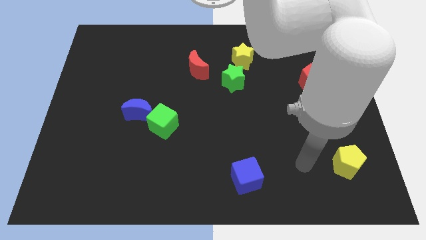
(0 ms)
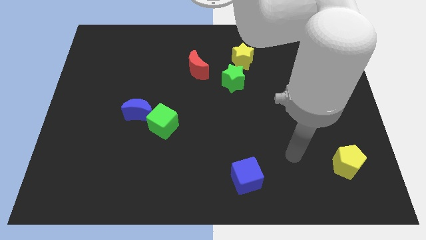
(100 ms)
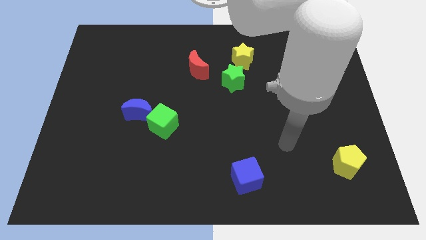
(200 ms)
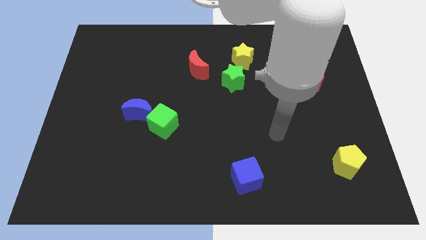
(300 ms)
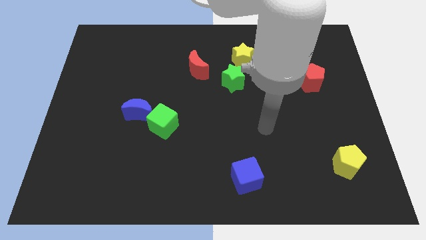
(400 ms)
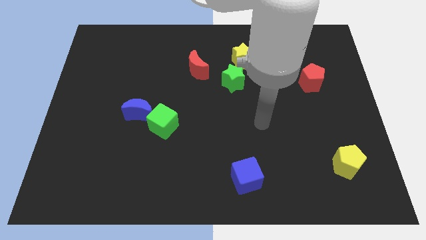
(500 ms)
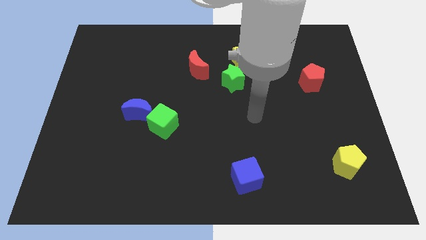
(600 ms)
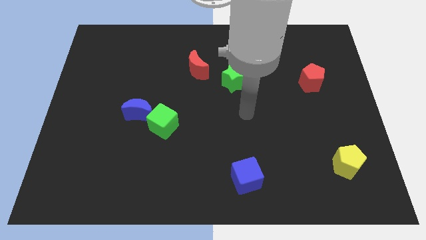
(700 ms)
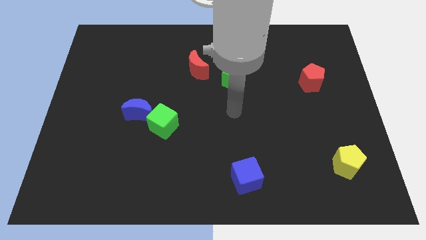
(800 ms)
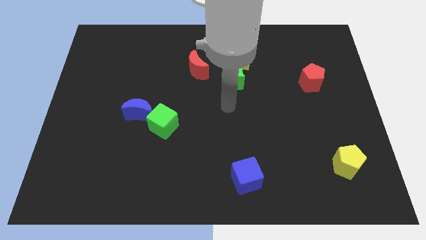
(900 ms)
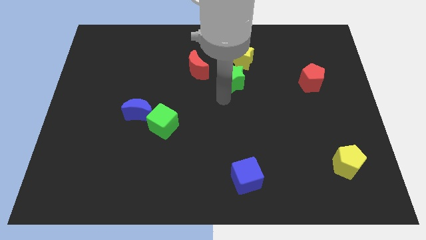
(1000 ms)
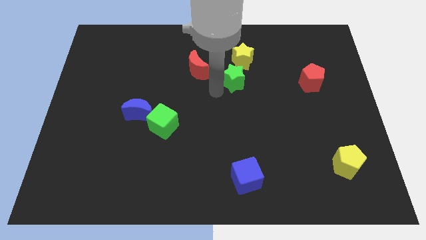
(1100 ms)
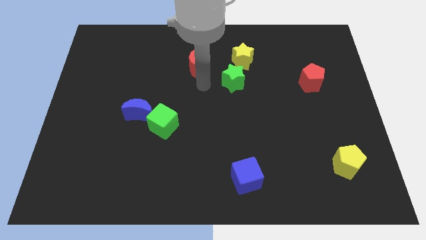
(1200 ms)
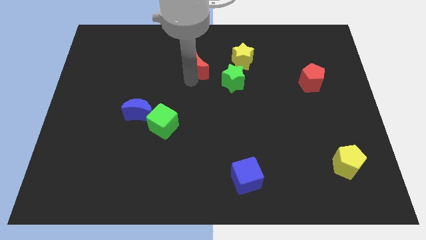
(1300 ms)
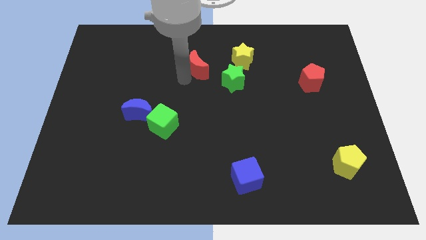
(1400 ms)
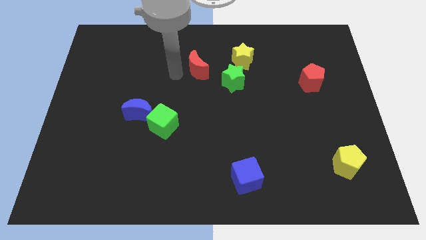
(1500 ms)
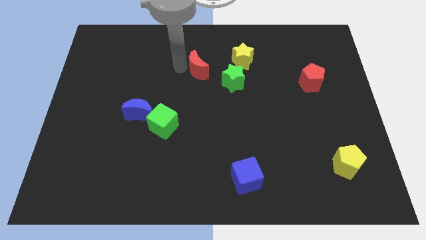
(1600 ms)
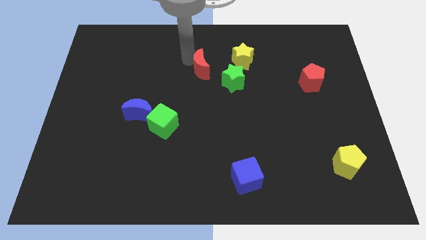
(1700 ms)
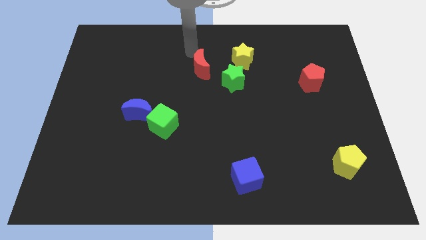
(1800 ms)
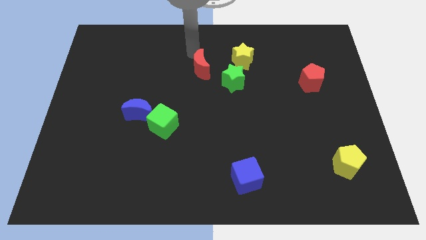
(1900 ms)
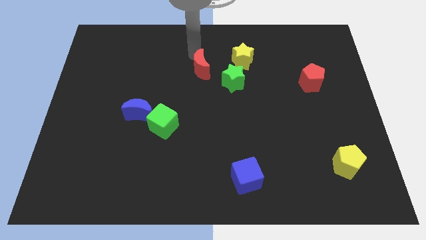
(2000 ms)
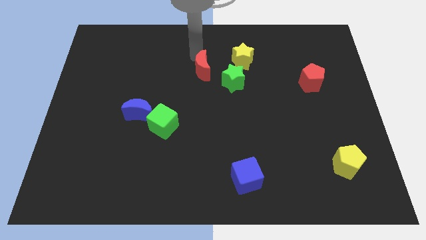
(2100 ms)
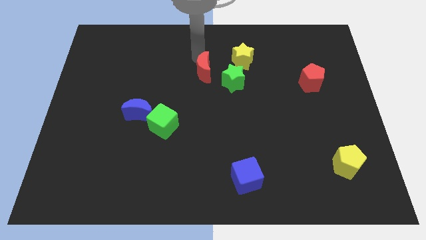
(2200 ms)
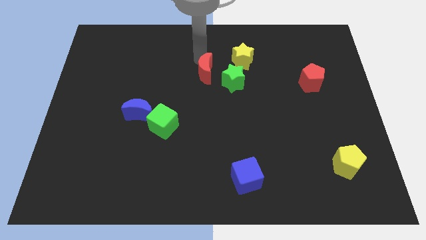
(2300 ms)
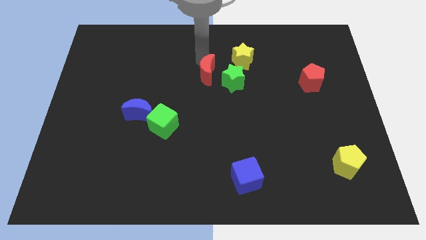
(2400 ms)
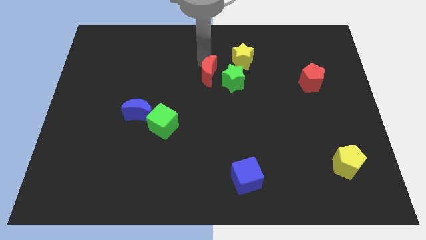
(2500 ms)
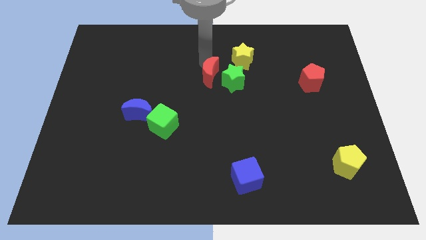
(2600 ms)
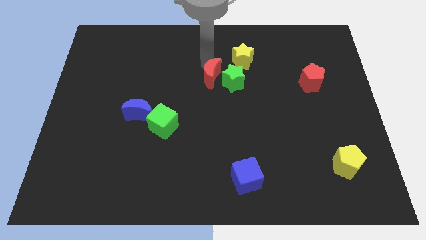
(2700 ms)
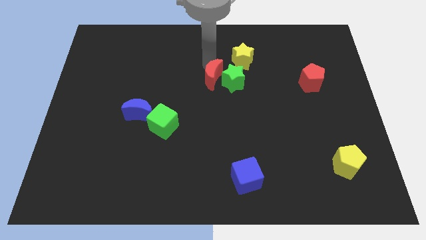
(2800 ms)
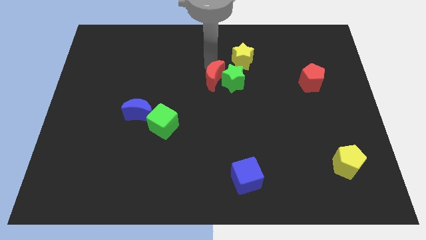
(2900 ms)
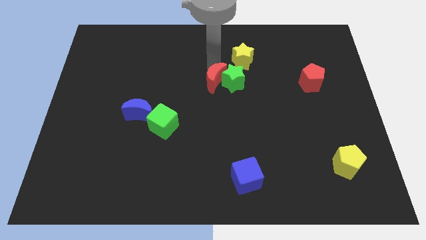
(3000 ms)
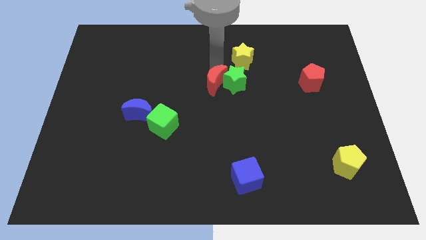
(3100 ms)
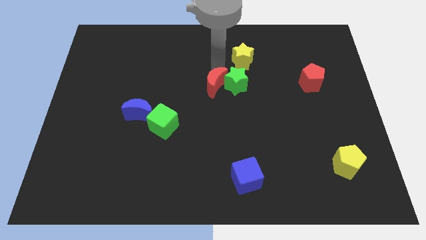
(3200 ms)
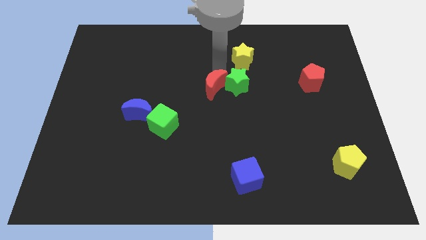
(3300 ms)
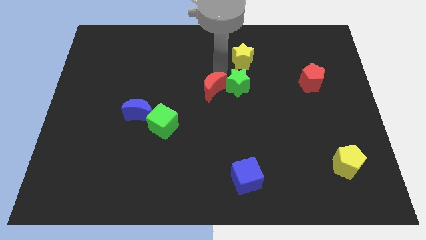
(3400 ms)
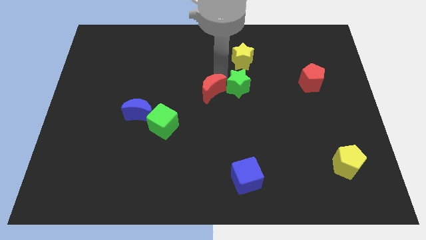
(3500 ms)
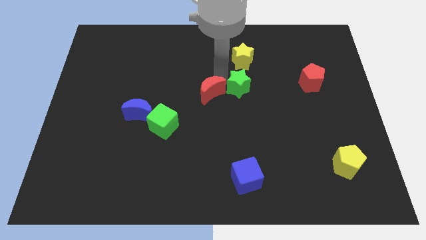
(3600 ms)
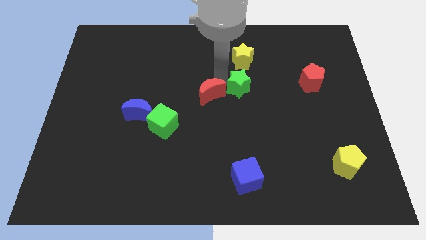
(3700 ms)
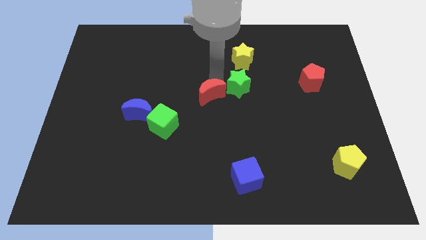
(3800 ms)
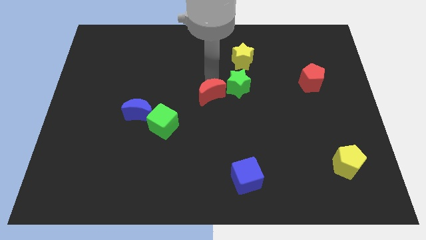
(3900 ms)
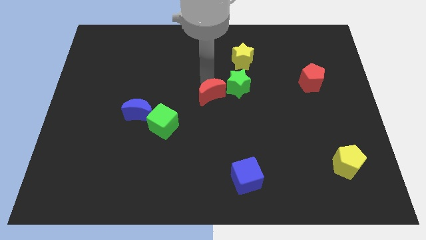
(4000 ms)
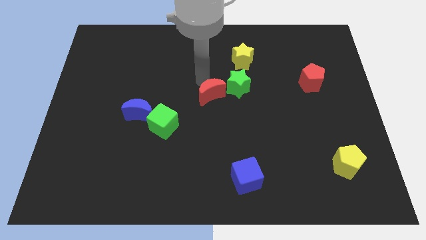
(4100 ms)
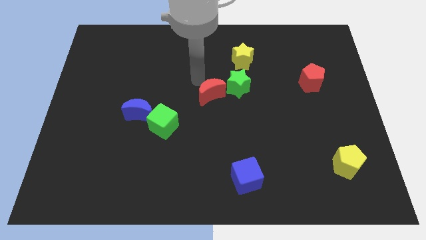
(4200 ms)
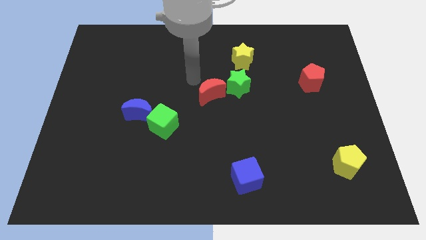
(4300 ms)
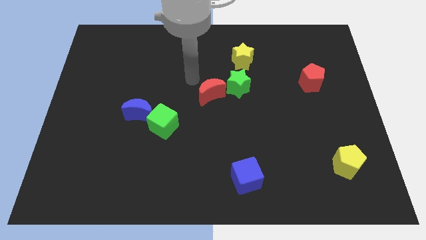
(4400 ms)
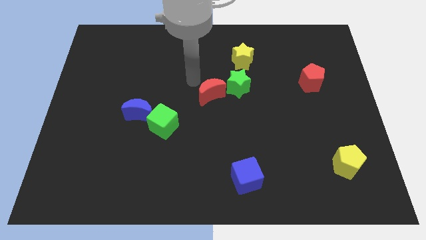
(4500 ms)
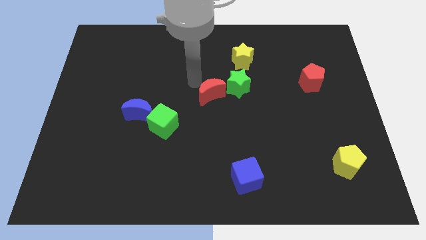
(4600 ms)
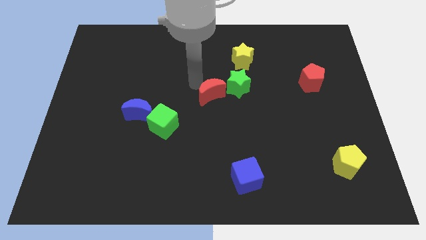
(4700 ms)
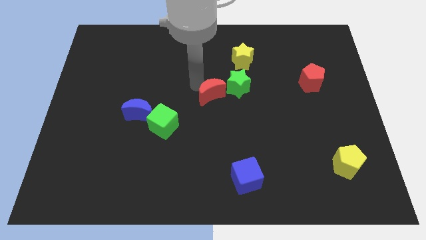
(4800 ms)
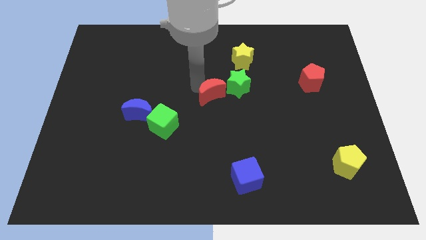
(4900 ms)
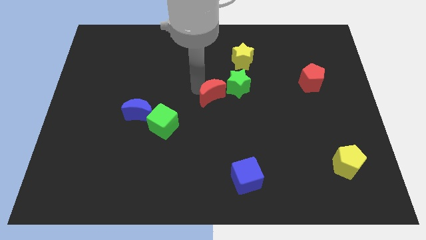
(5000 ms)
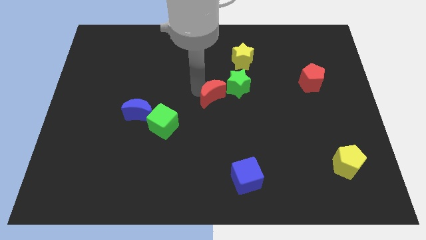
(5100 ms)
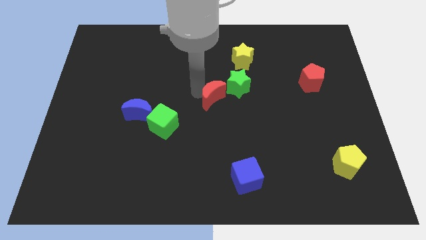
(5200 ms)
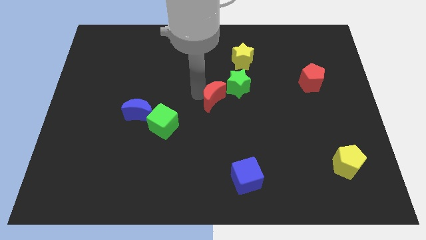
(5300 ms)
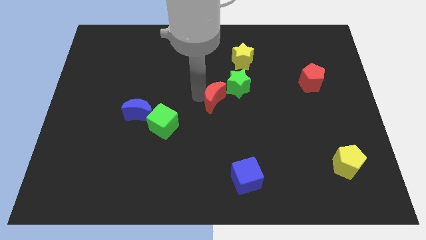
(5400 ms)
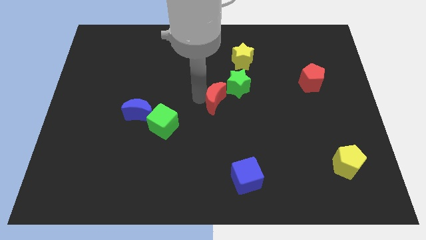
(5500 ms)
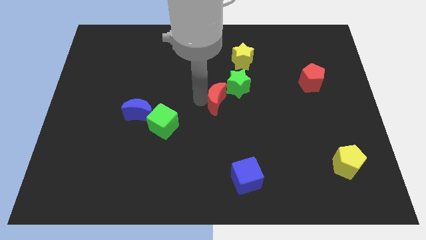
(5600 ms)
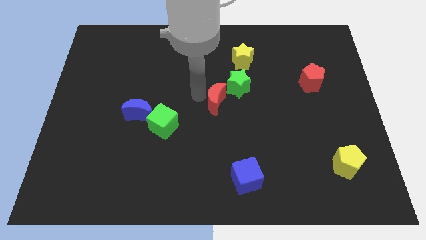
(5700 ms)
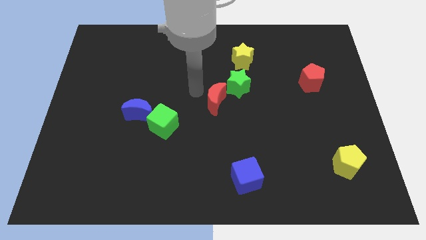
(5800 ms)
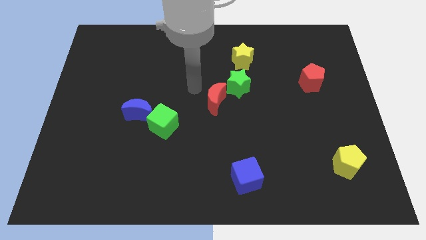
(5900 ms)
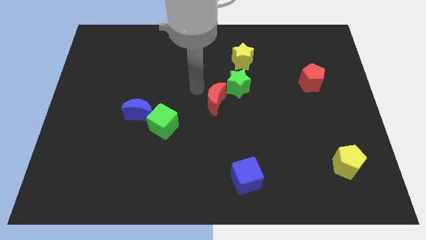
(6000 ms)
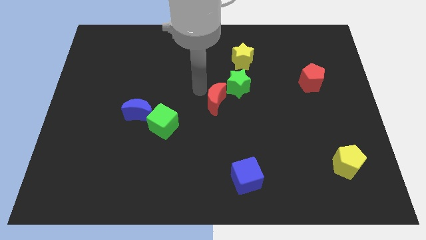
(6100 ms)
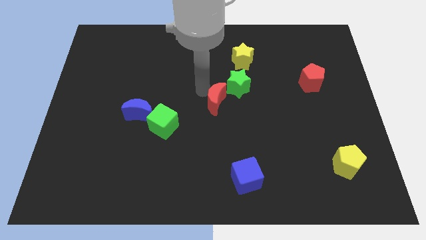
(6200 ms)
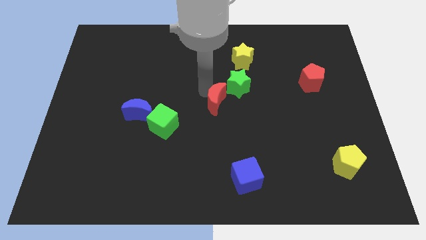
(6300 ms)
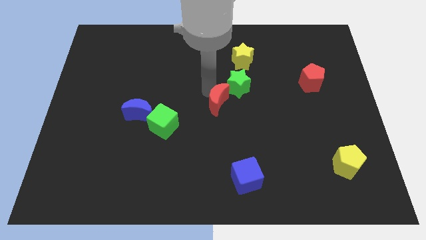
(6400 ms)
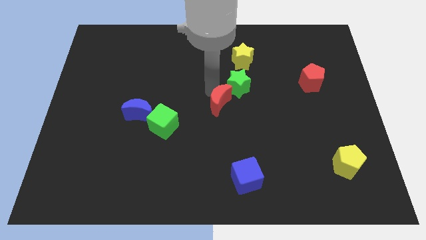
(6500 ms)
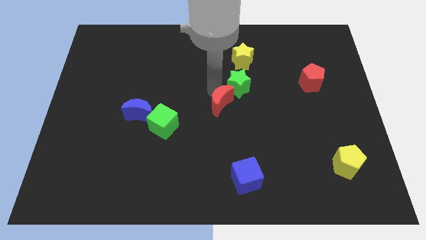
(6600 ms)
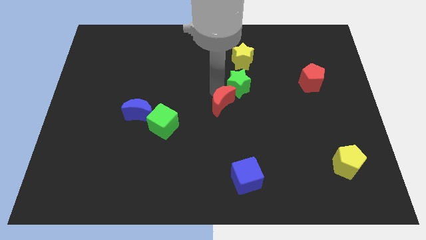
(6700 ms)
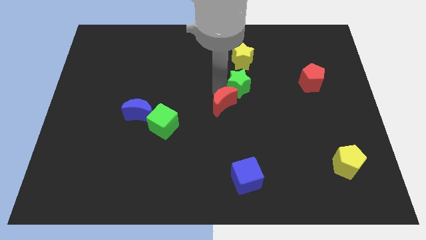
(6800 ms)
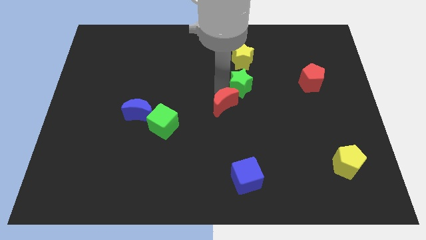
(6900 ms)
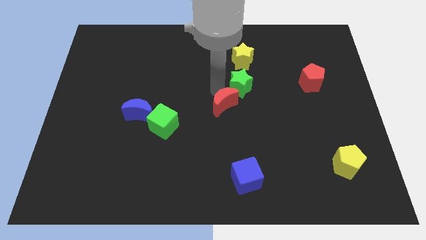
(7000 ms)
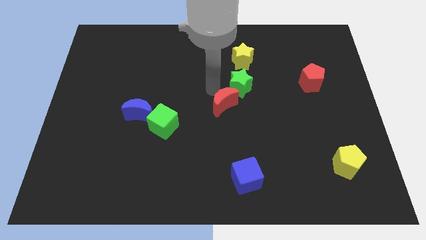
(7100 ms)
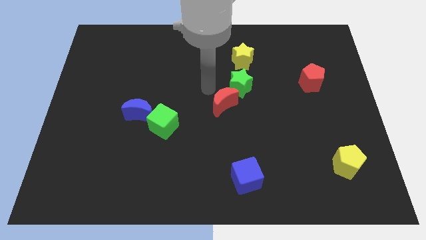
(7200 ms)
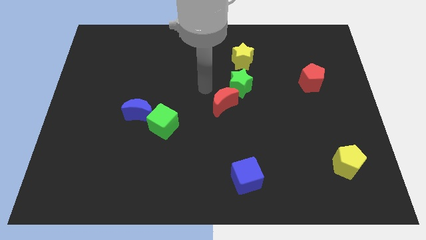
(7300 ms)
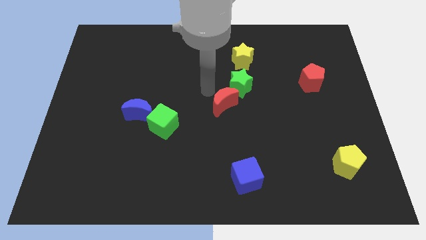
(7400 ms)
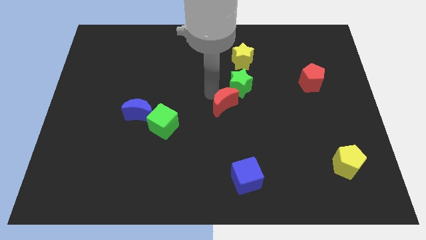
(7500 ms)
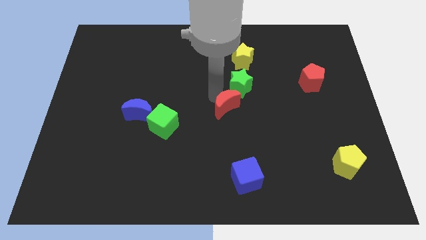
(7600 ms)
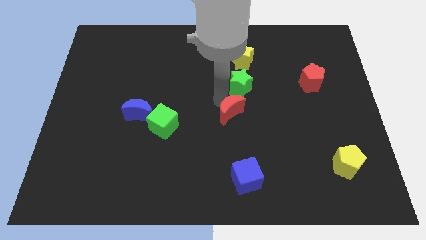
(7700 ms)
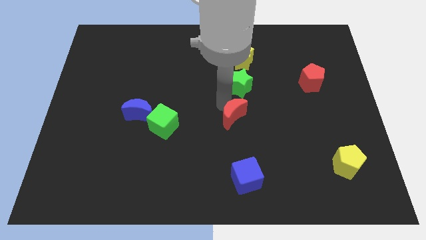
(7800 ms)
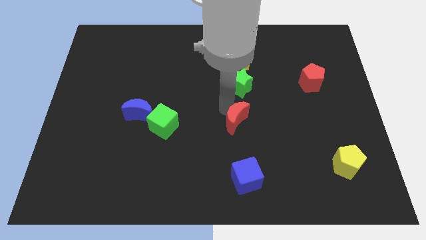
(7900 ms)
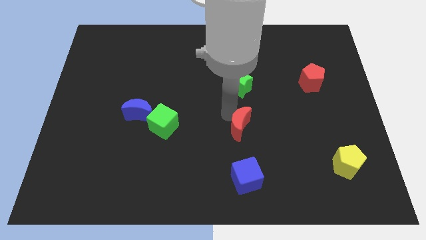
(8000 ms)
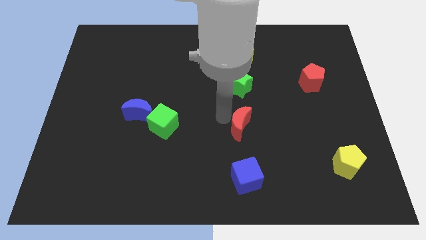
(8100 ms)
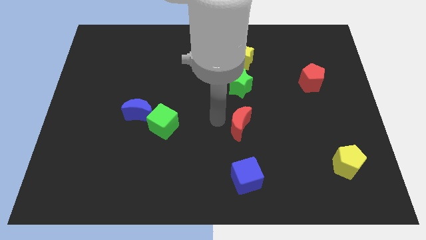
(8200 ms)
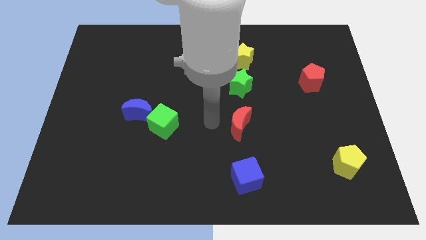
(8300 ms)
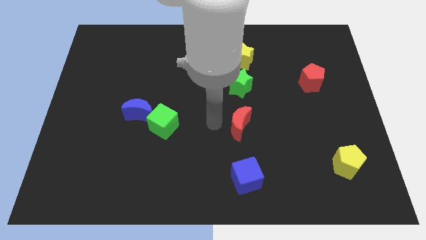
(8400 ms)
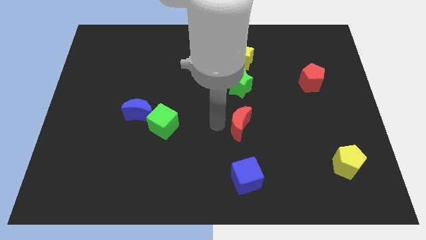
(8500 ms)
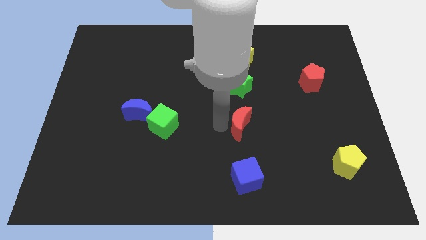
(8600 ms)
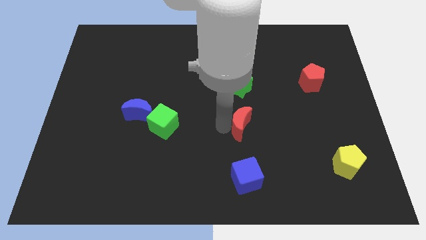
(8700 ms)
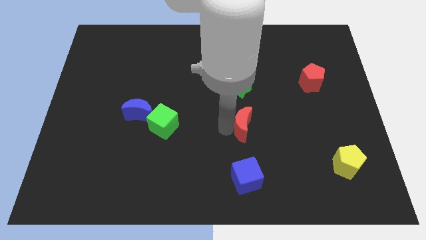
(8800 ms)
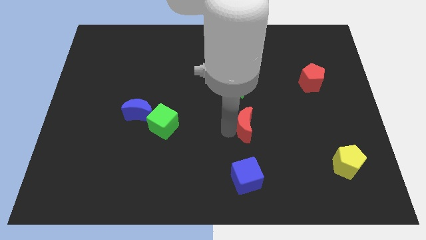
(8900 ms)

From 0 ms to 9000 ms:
move the red moon downwards and to the right diagonally
